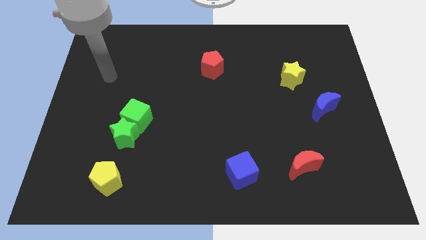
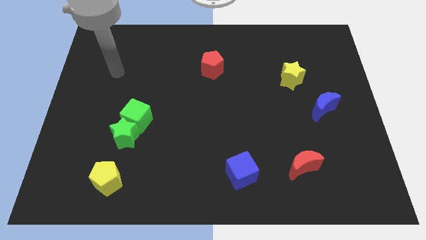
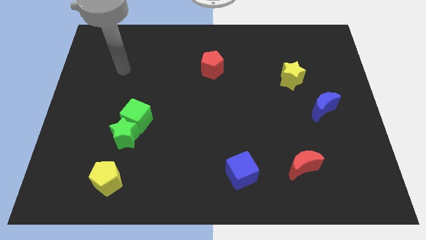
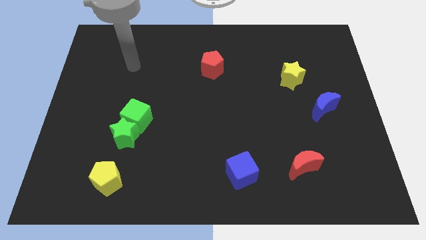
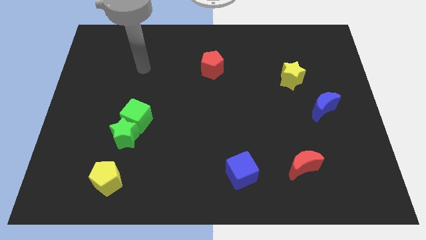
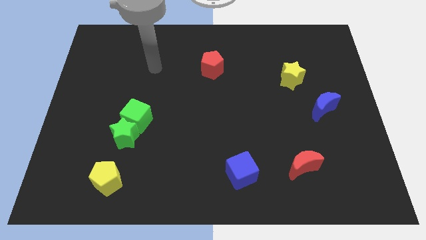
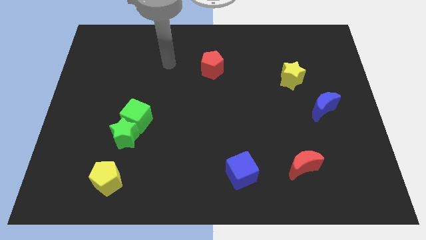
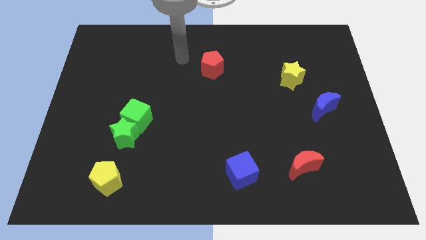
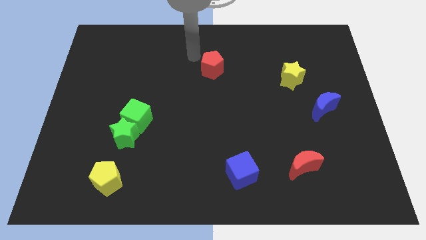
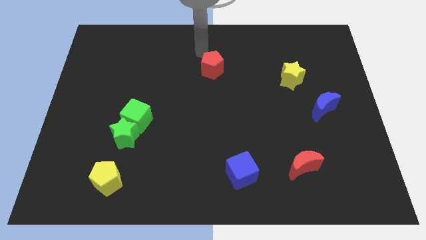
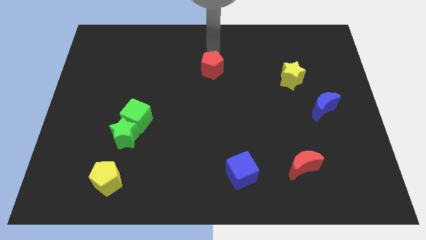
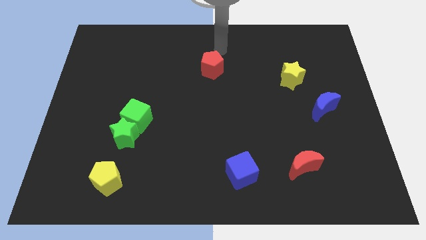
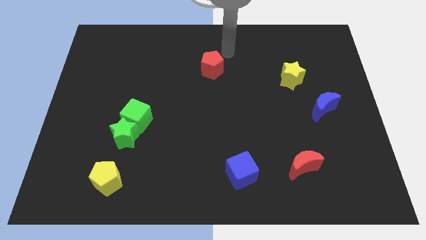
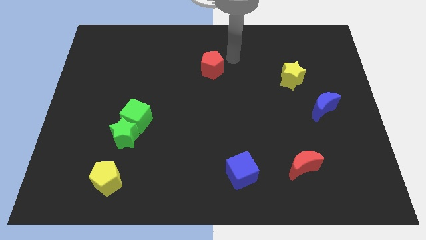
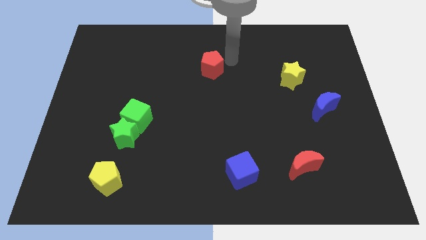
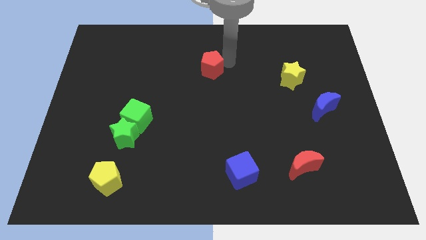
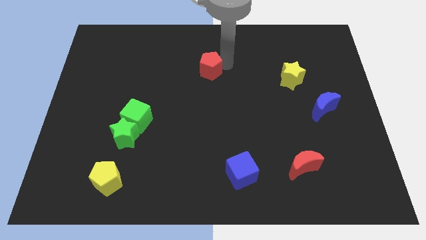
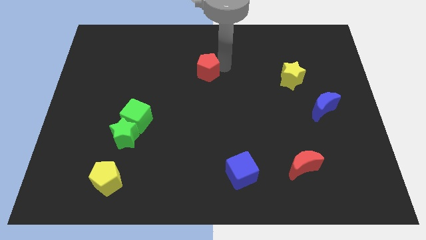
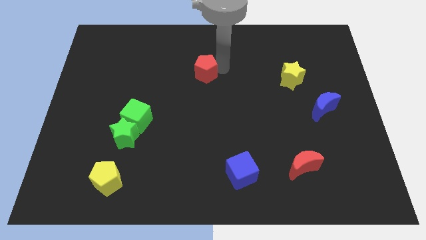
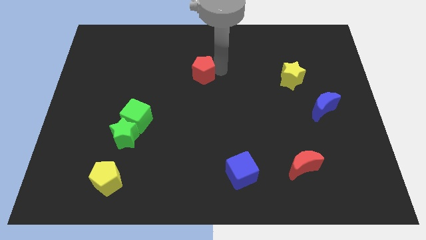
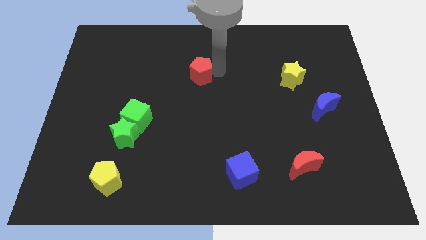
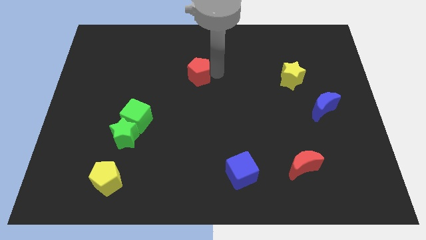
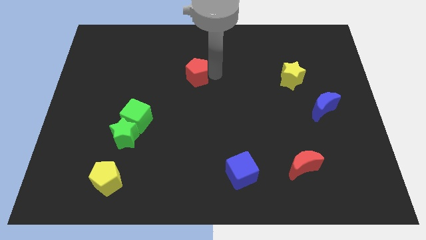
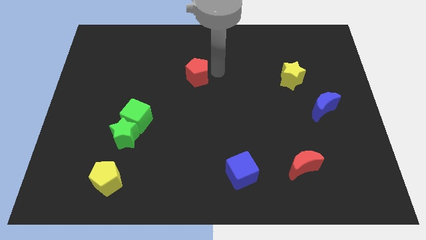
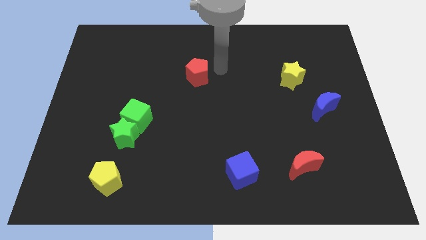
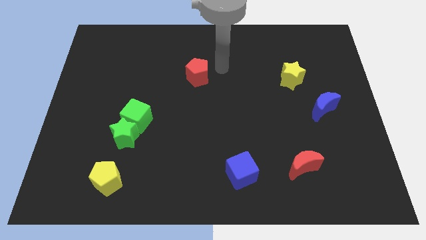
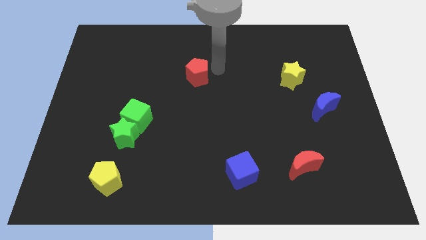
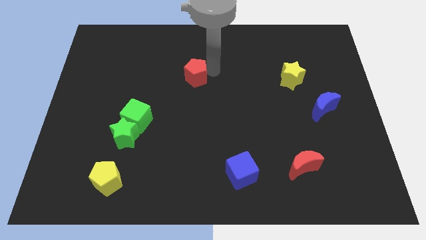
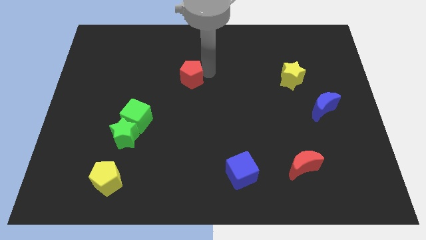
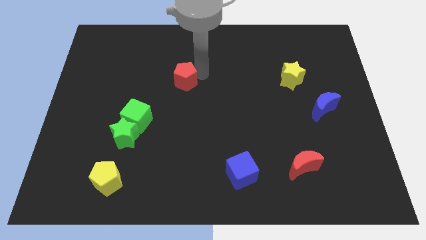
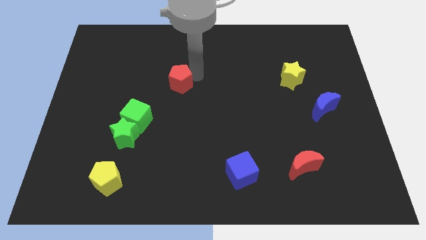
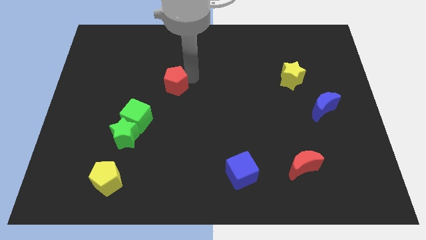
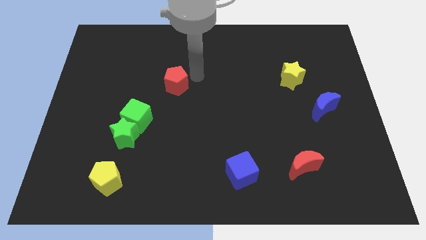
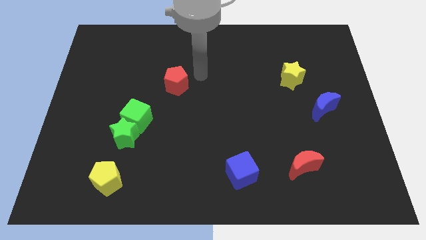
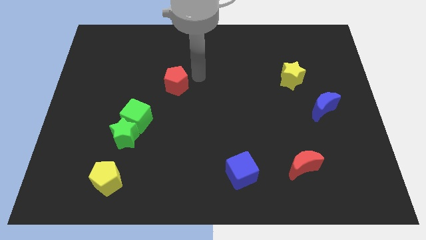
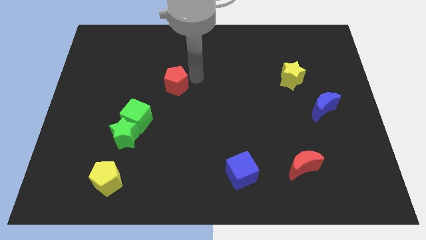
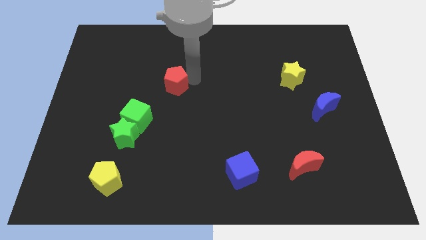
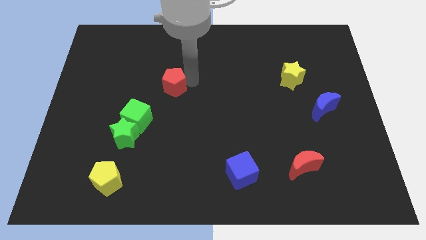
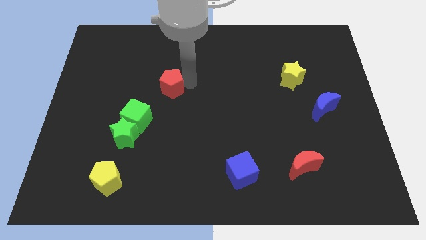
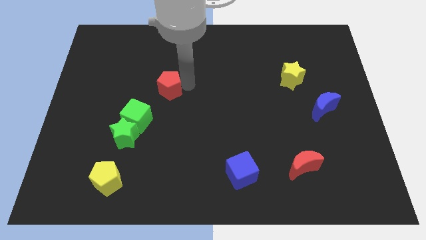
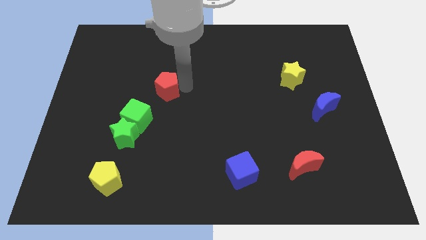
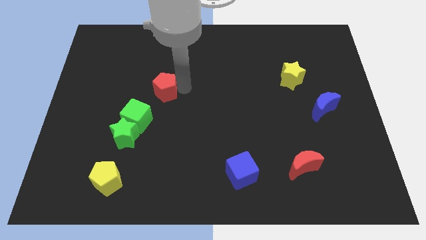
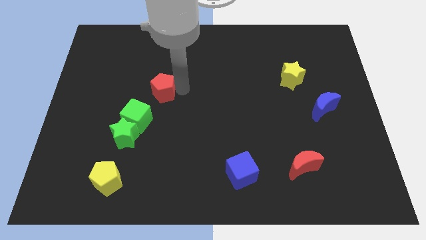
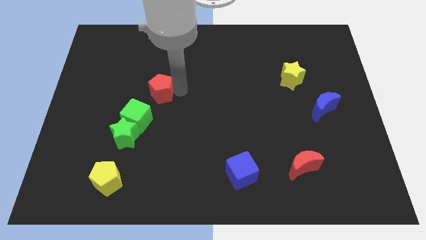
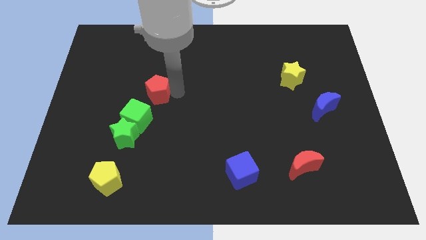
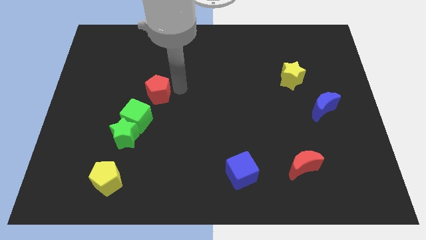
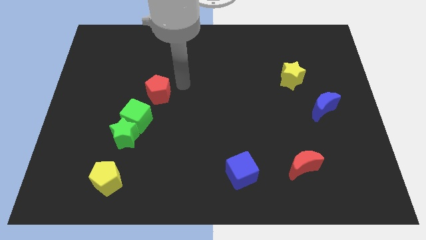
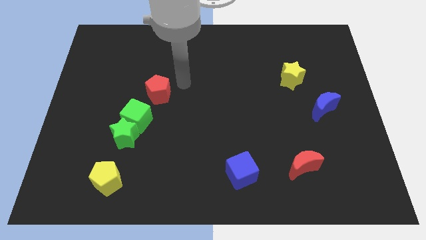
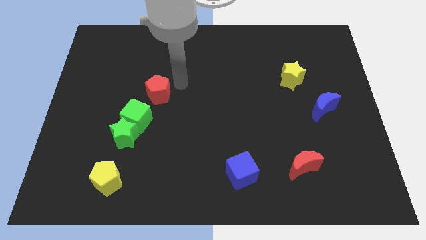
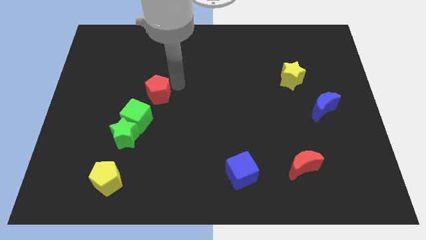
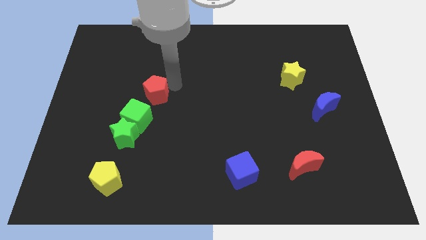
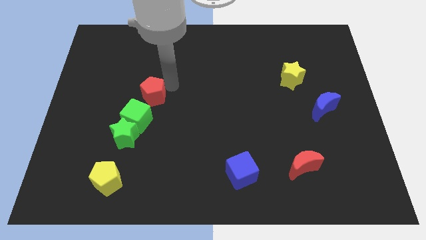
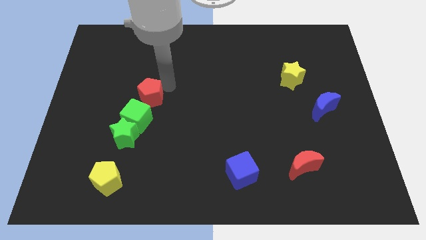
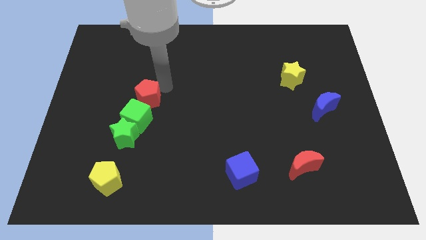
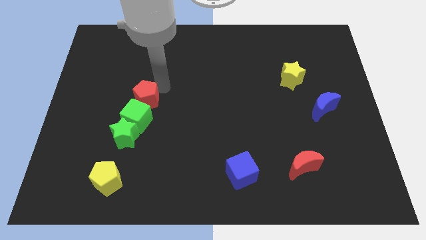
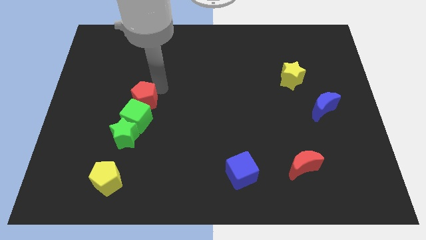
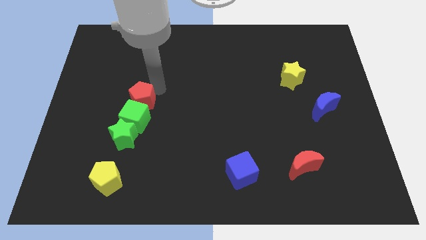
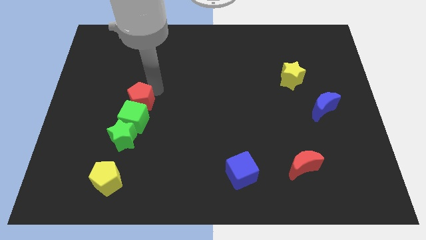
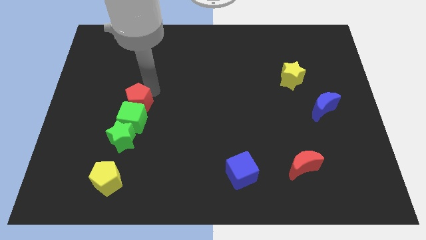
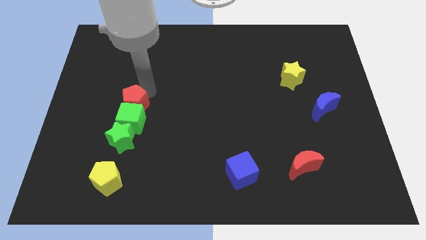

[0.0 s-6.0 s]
move the red pentagon down and to the left diagonally

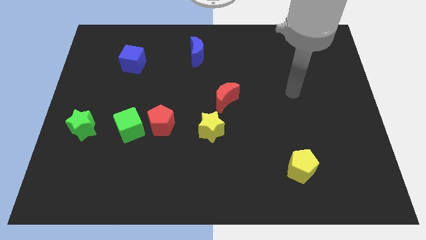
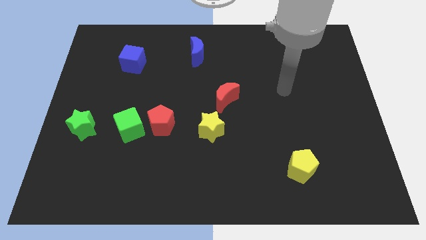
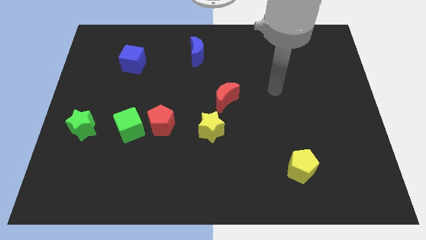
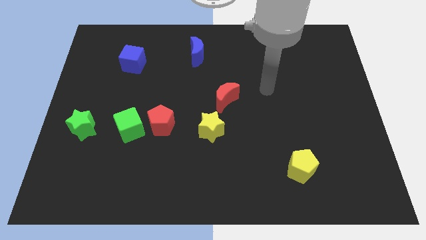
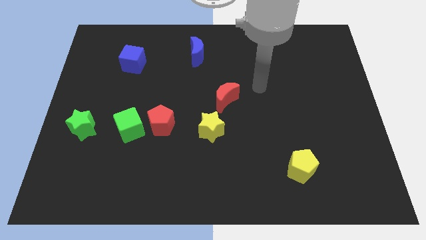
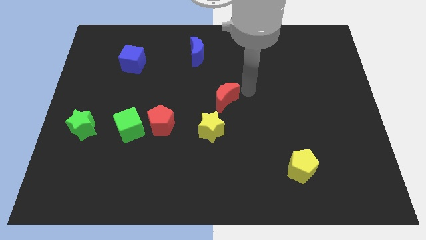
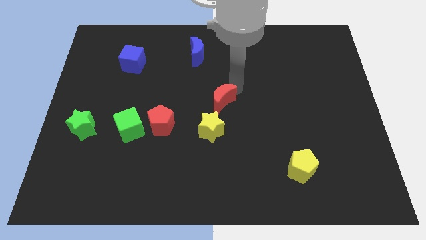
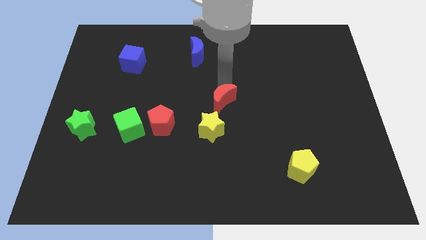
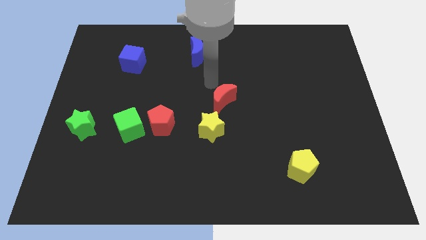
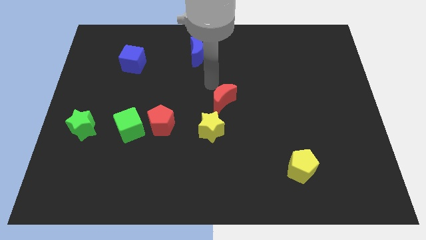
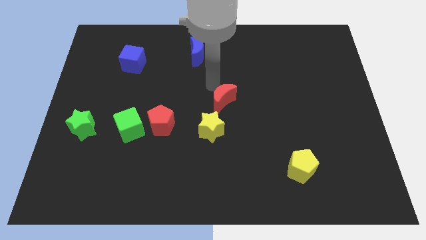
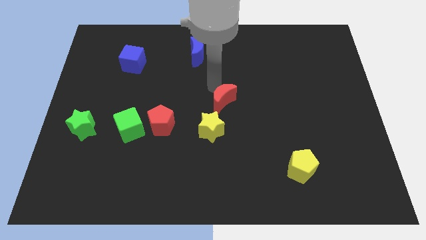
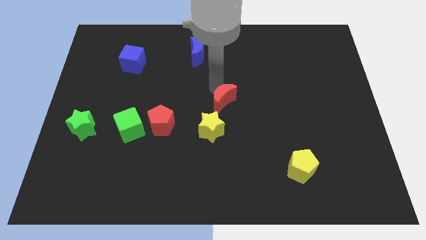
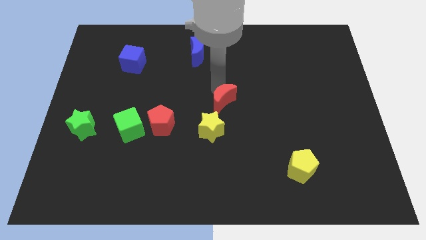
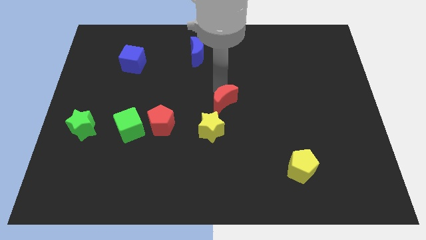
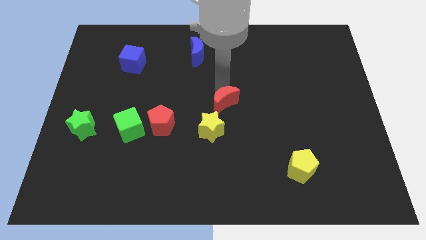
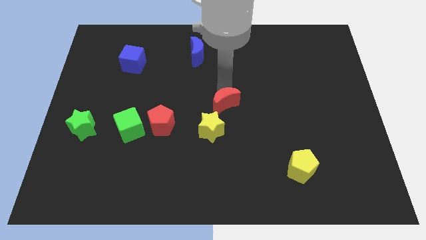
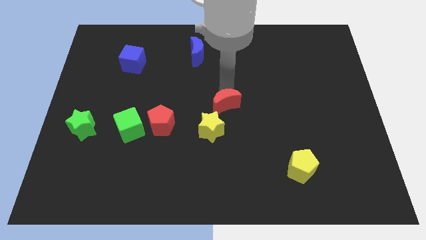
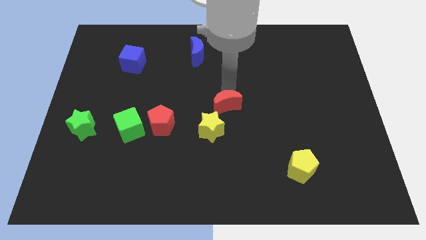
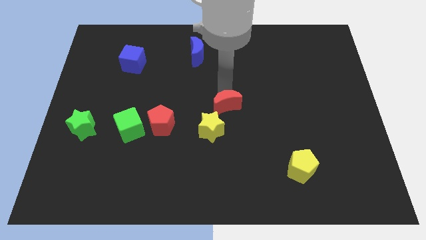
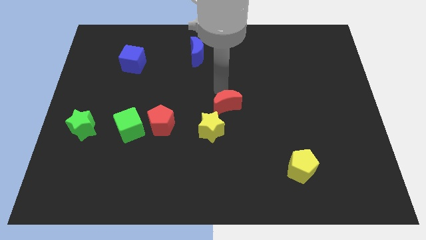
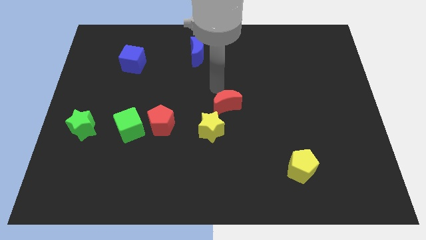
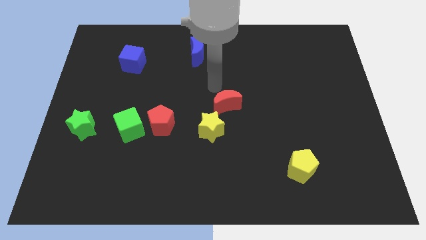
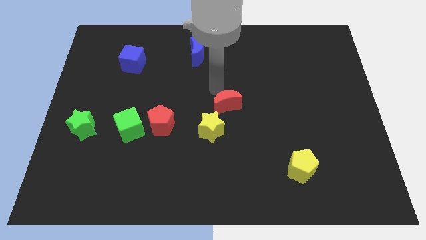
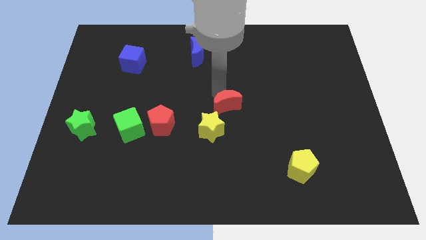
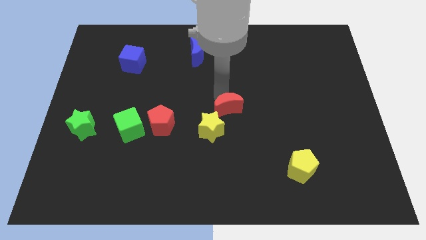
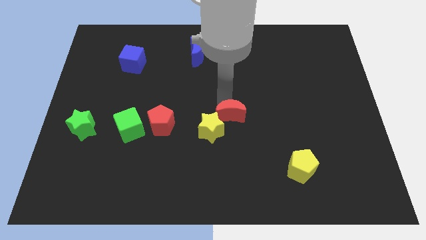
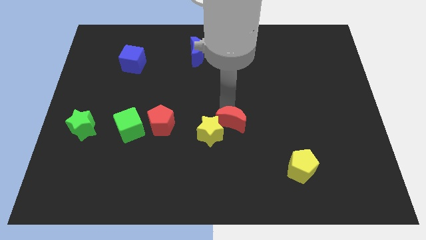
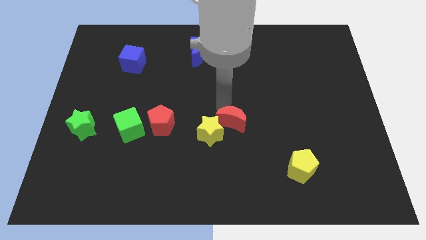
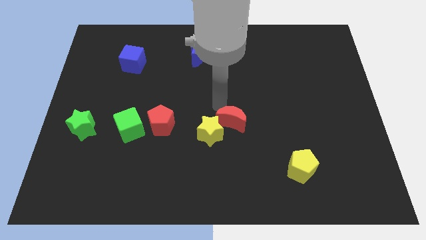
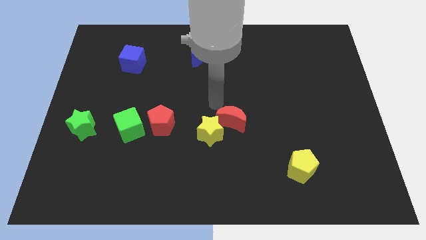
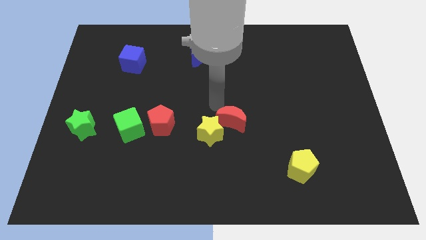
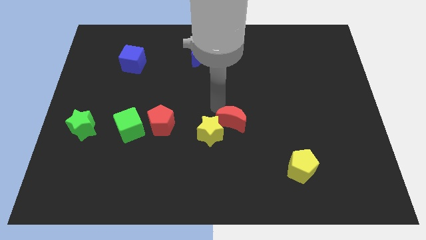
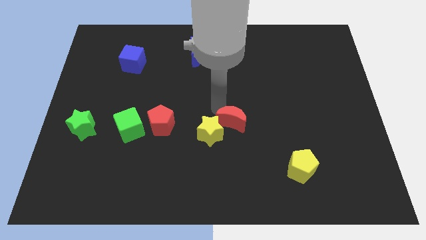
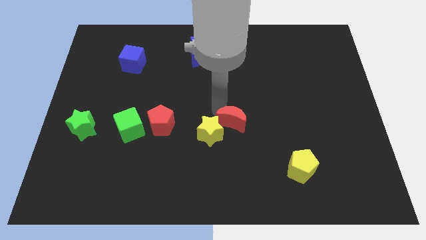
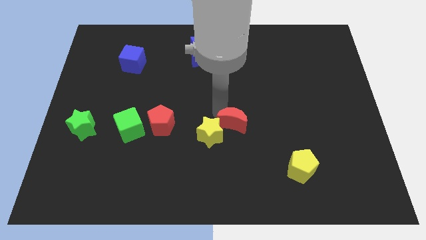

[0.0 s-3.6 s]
push the red moon a little bit down
